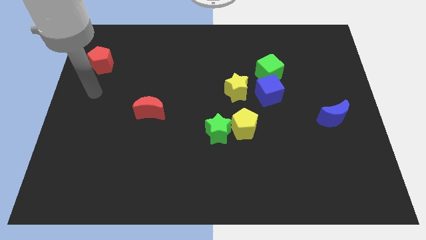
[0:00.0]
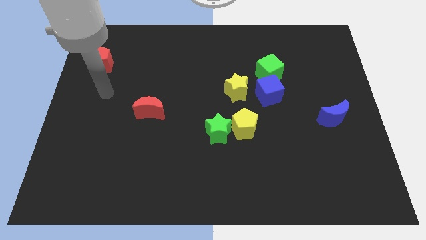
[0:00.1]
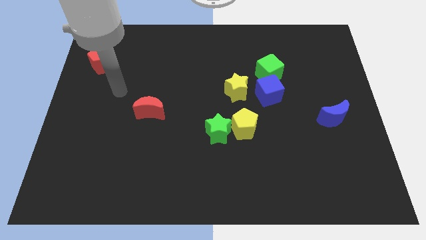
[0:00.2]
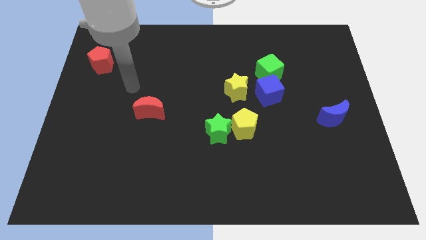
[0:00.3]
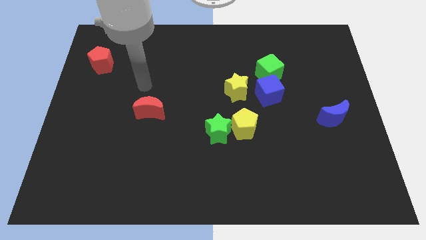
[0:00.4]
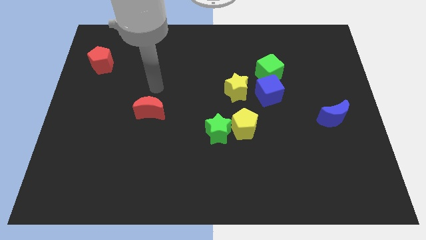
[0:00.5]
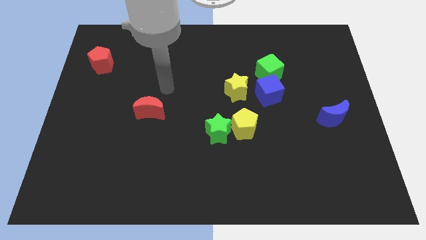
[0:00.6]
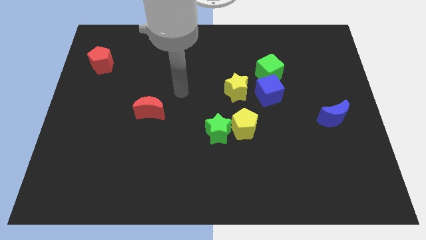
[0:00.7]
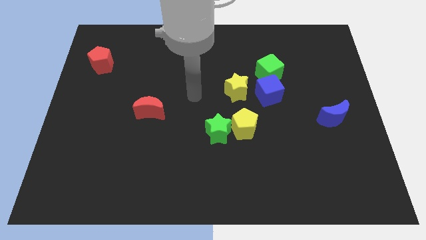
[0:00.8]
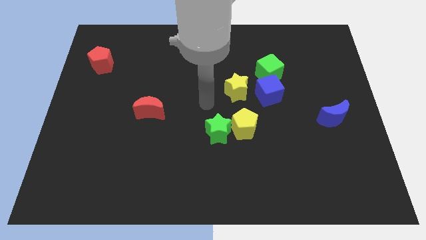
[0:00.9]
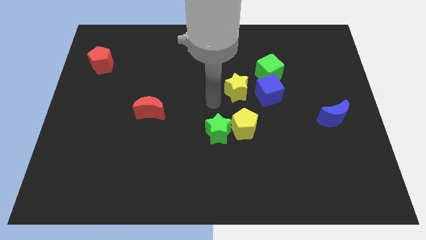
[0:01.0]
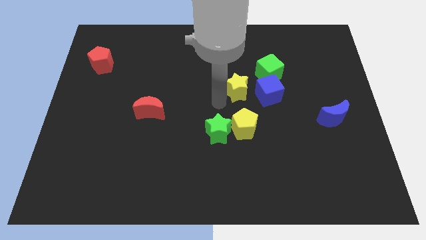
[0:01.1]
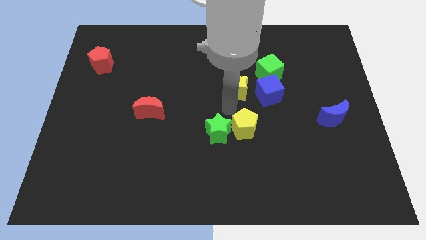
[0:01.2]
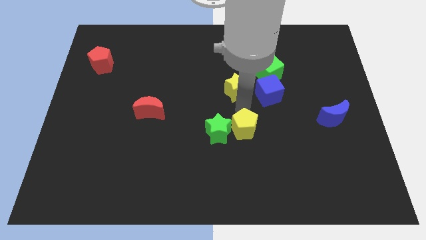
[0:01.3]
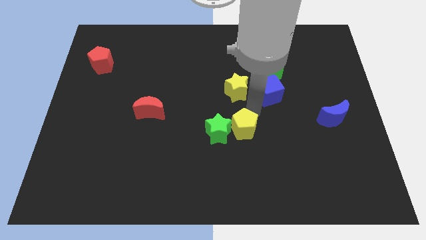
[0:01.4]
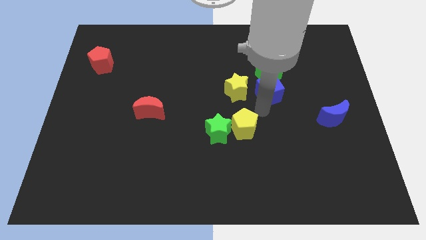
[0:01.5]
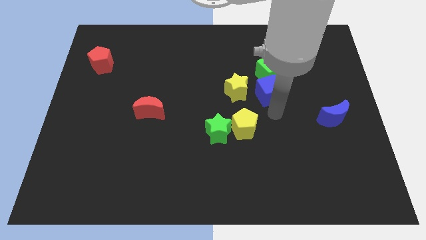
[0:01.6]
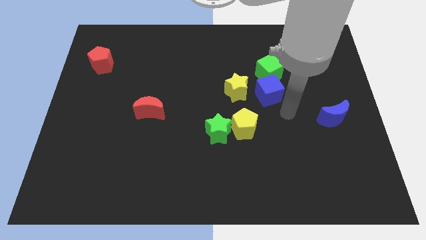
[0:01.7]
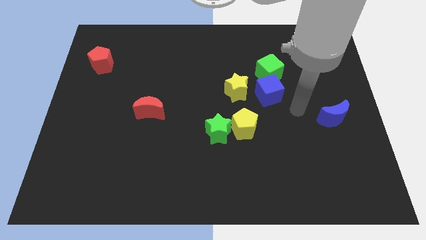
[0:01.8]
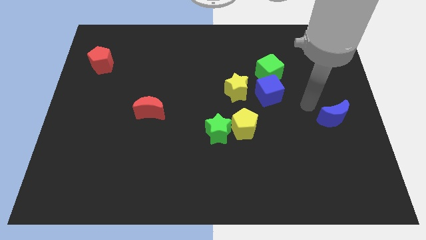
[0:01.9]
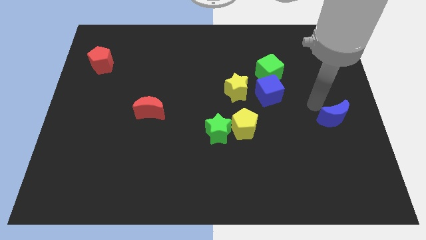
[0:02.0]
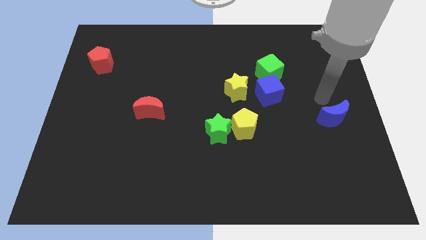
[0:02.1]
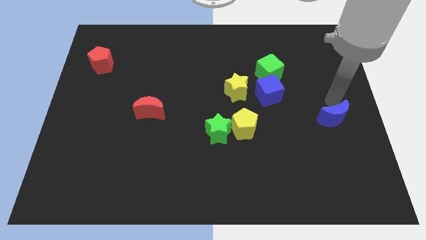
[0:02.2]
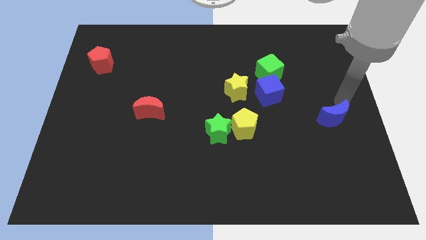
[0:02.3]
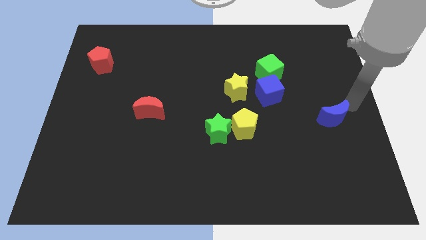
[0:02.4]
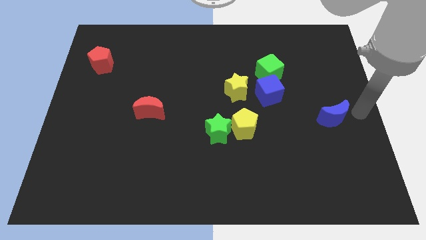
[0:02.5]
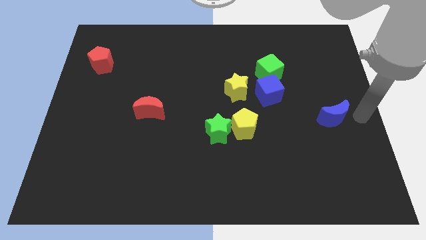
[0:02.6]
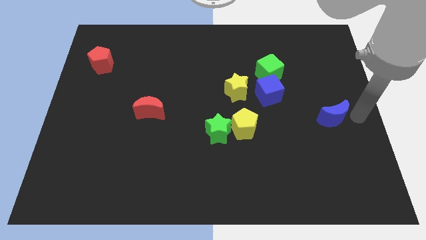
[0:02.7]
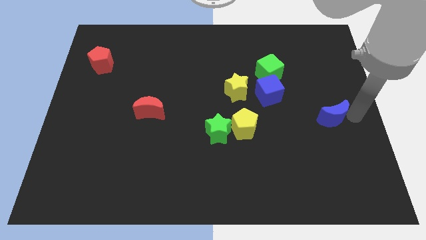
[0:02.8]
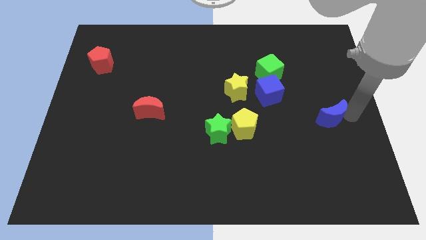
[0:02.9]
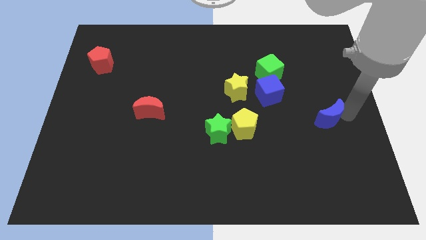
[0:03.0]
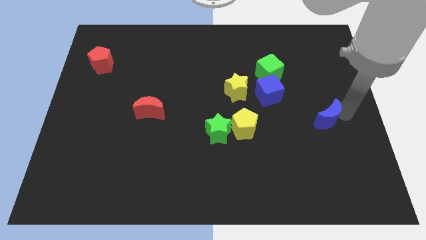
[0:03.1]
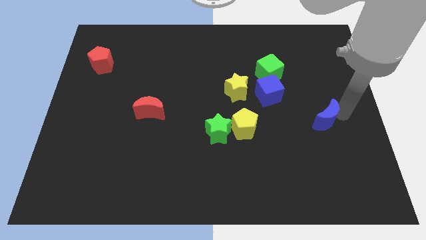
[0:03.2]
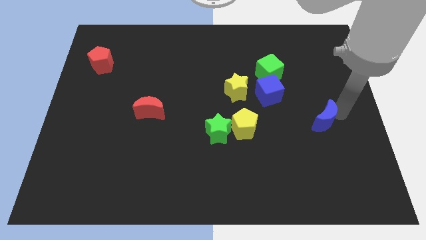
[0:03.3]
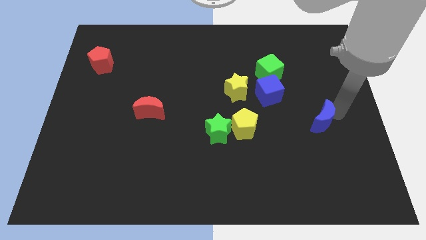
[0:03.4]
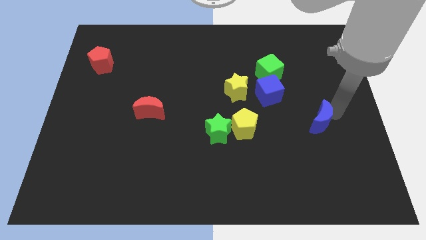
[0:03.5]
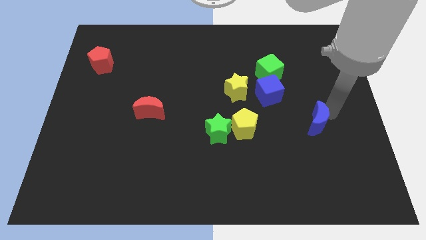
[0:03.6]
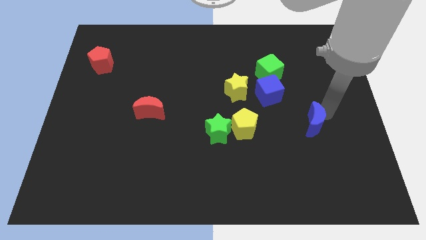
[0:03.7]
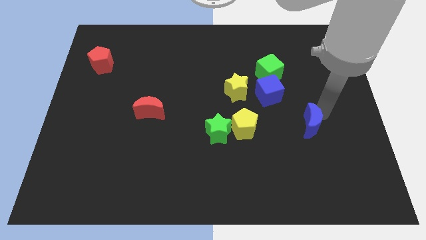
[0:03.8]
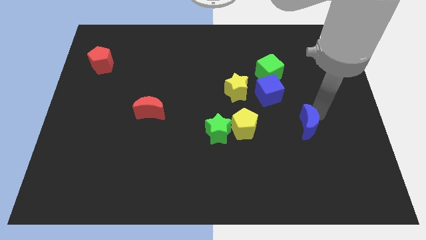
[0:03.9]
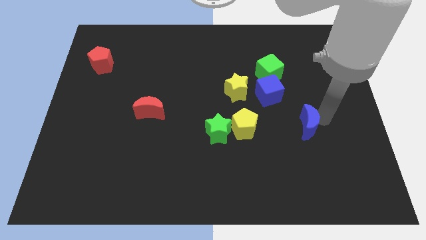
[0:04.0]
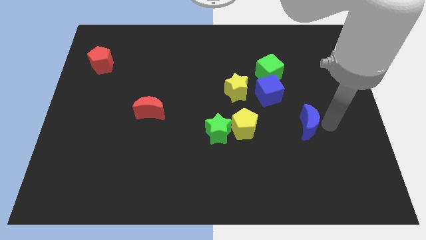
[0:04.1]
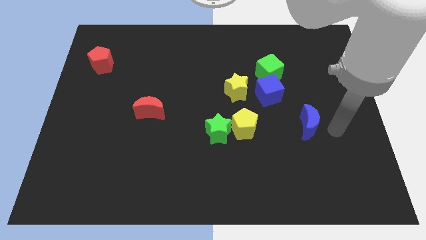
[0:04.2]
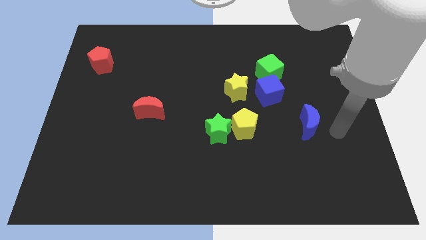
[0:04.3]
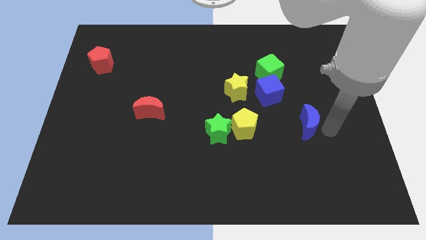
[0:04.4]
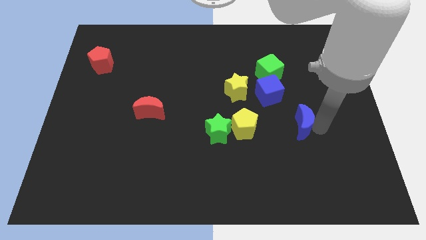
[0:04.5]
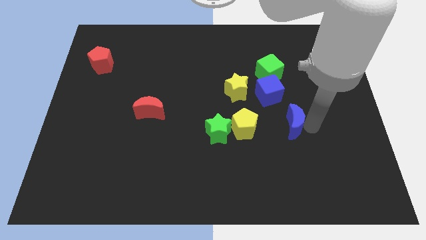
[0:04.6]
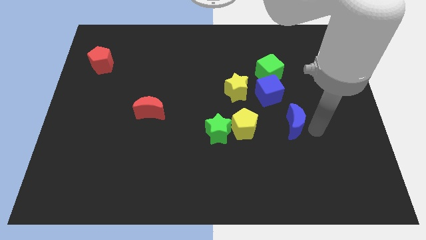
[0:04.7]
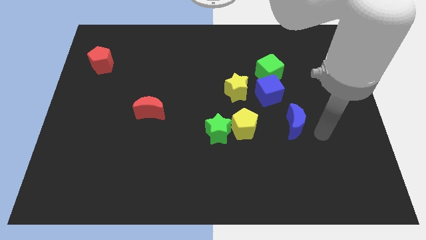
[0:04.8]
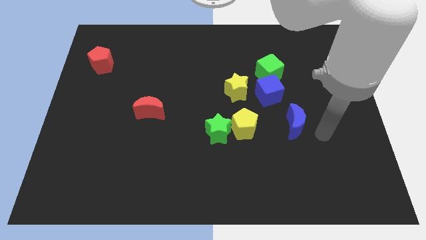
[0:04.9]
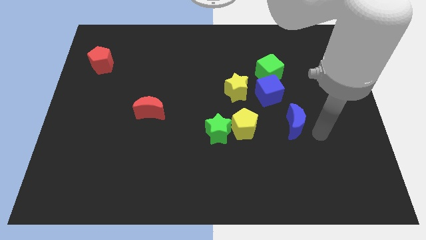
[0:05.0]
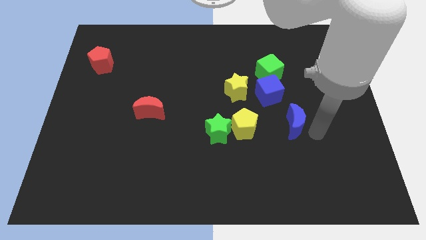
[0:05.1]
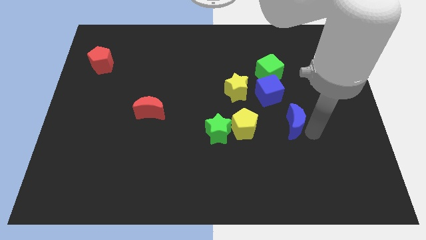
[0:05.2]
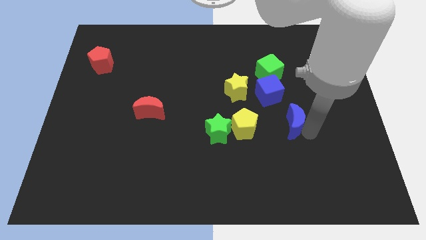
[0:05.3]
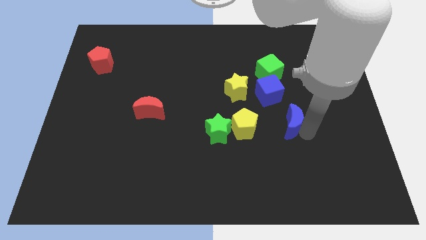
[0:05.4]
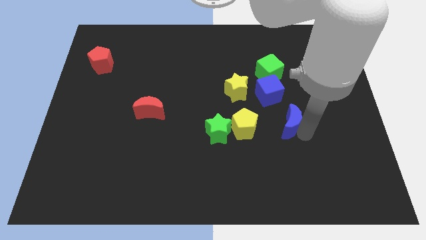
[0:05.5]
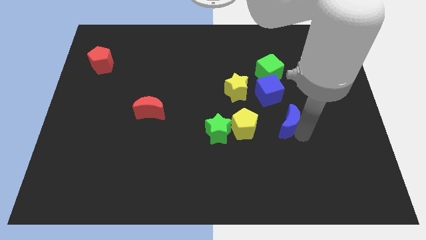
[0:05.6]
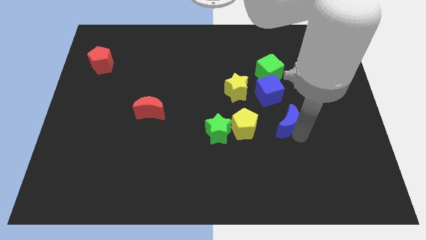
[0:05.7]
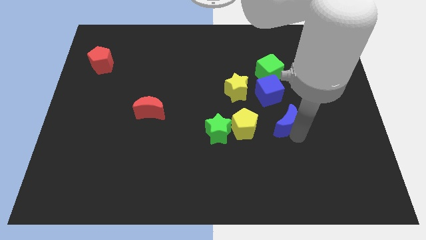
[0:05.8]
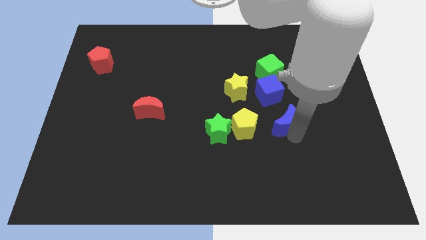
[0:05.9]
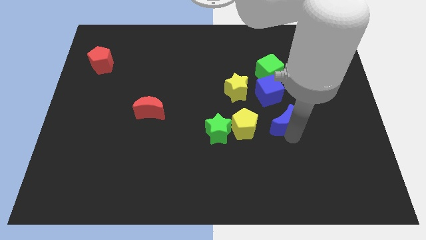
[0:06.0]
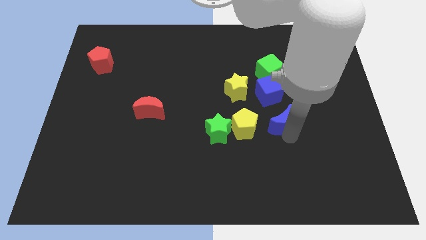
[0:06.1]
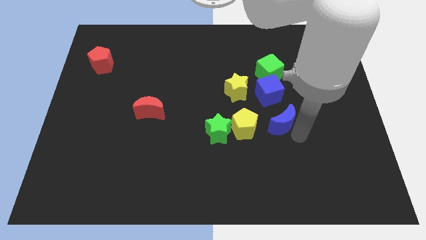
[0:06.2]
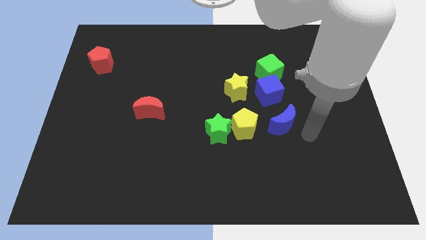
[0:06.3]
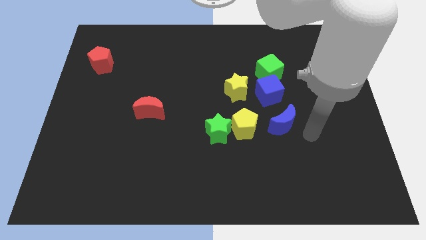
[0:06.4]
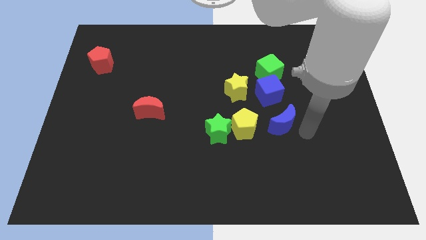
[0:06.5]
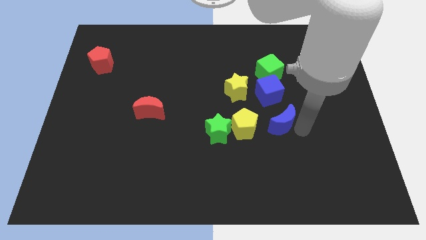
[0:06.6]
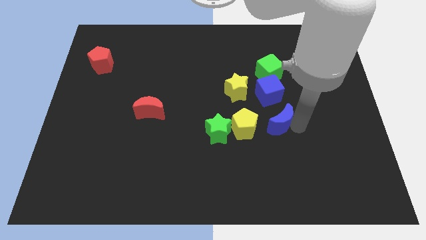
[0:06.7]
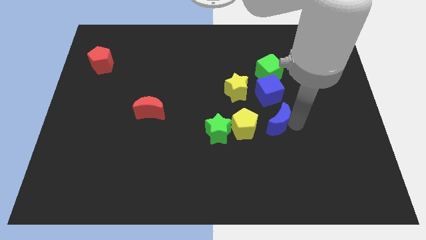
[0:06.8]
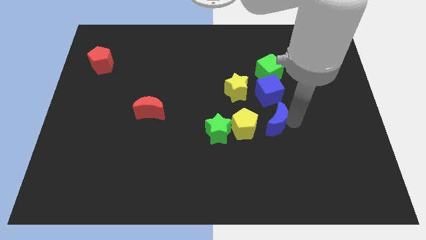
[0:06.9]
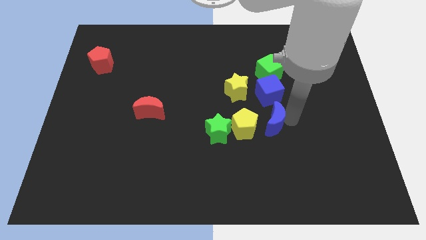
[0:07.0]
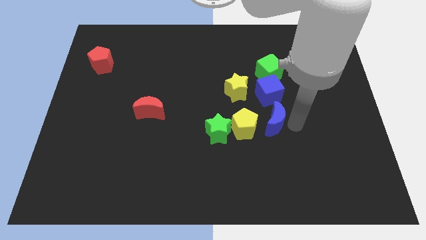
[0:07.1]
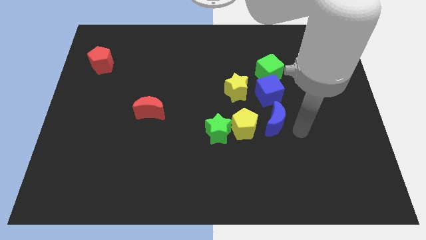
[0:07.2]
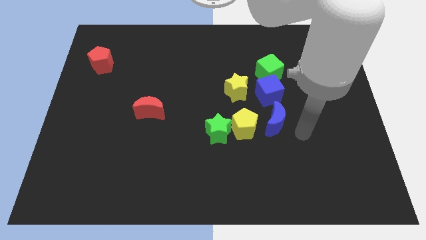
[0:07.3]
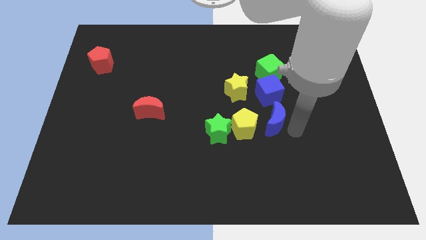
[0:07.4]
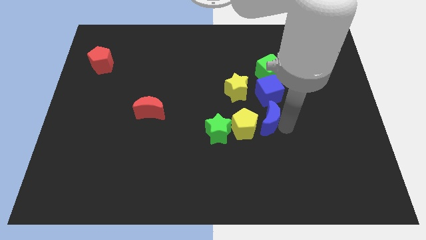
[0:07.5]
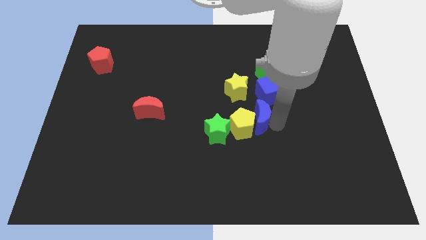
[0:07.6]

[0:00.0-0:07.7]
put the blue moon to the center of the board
